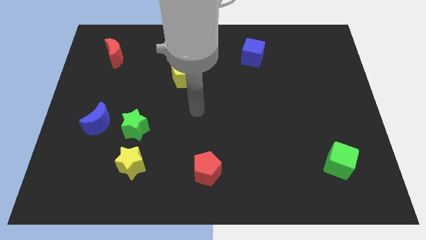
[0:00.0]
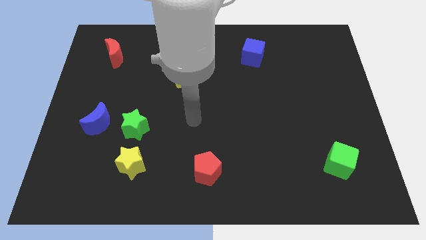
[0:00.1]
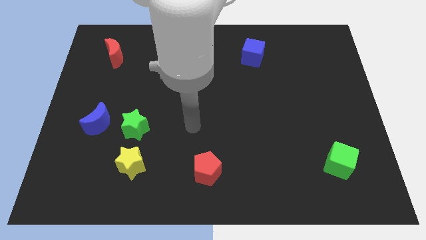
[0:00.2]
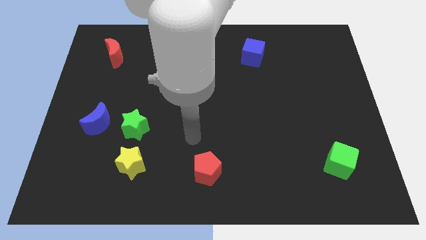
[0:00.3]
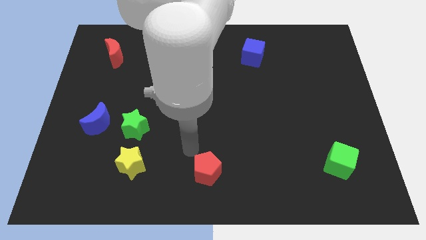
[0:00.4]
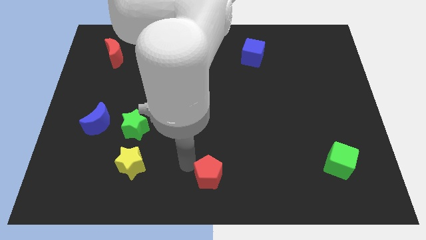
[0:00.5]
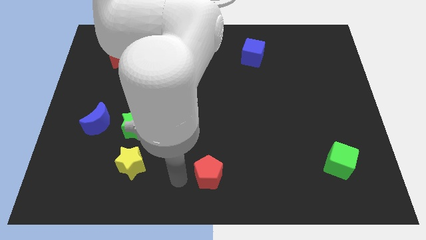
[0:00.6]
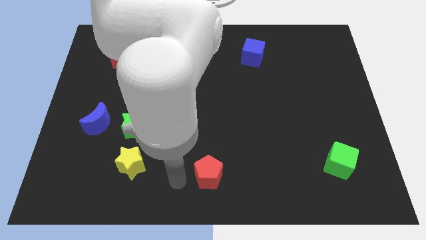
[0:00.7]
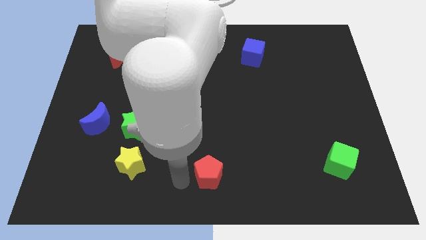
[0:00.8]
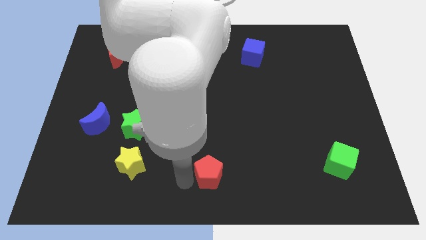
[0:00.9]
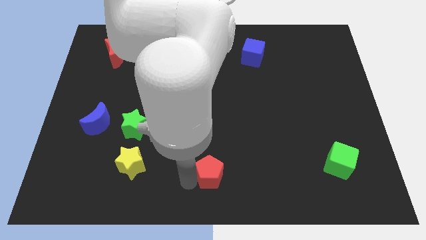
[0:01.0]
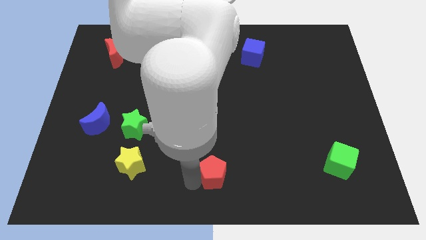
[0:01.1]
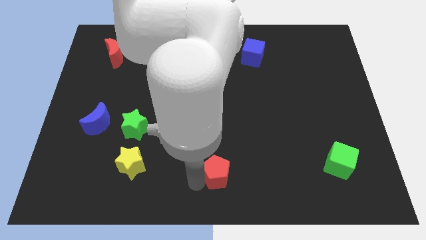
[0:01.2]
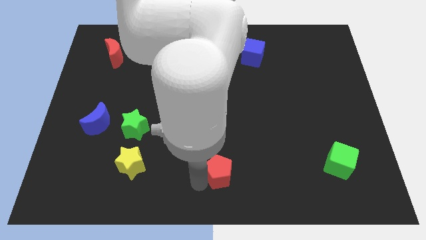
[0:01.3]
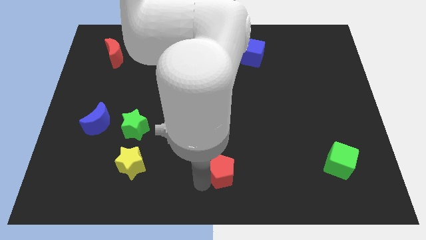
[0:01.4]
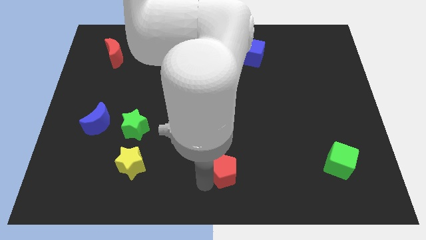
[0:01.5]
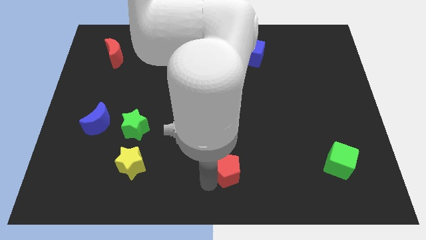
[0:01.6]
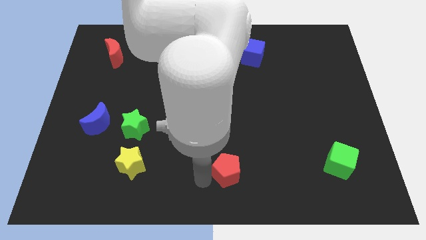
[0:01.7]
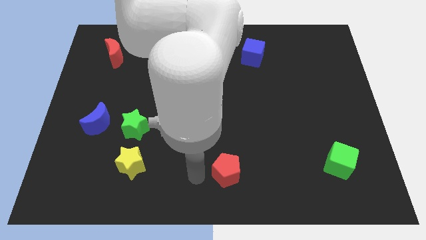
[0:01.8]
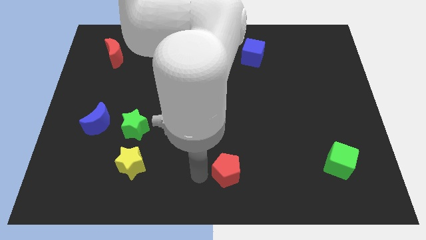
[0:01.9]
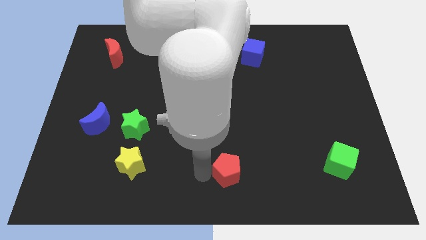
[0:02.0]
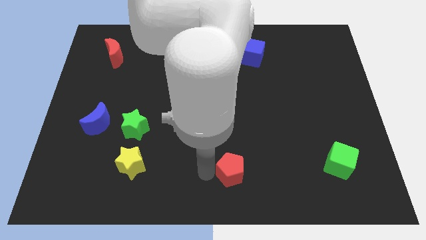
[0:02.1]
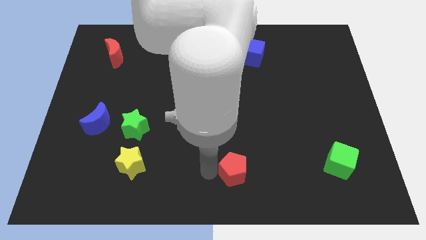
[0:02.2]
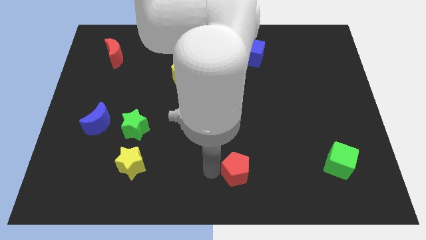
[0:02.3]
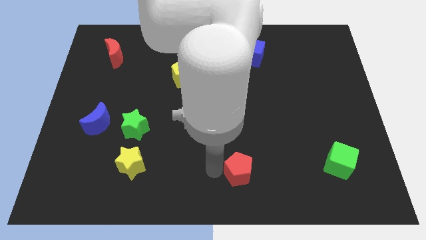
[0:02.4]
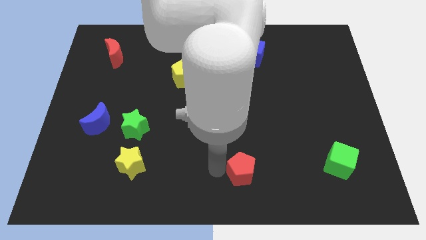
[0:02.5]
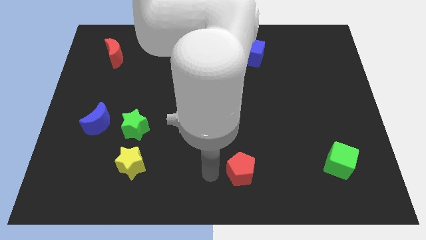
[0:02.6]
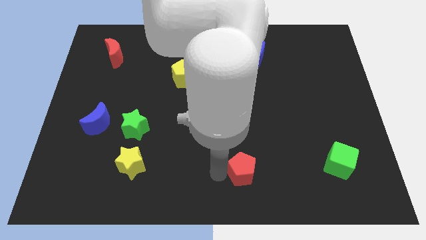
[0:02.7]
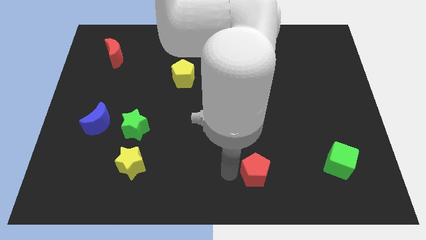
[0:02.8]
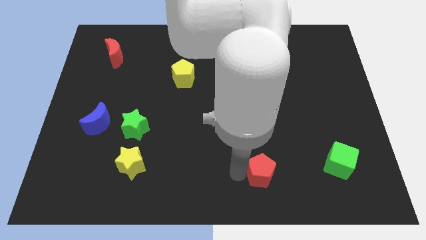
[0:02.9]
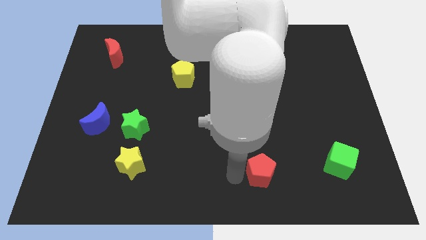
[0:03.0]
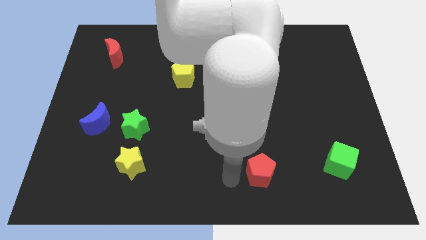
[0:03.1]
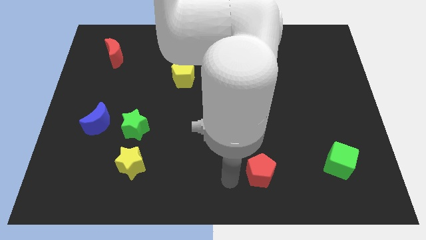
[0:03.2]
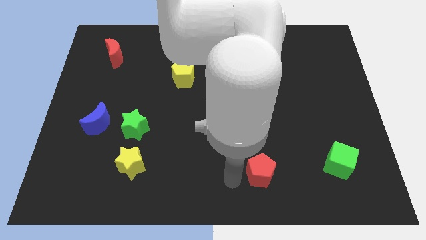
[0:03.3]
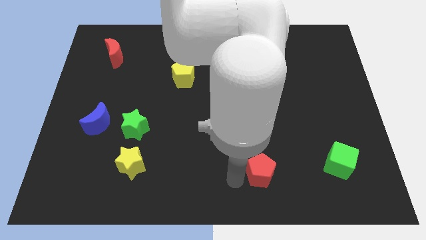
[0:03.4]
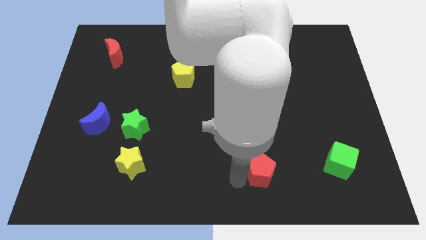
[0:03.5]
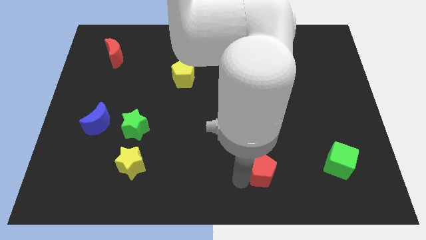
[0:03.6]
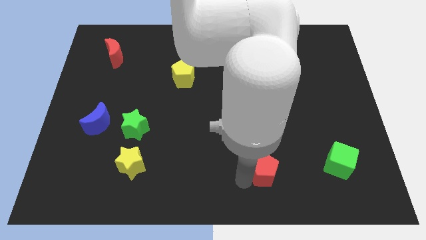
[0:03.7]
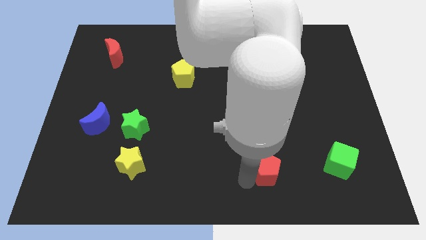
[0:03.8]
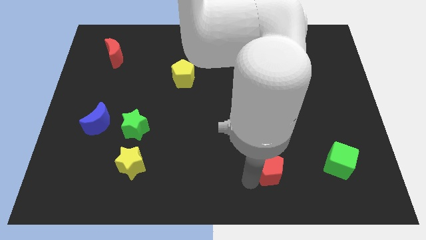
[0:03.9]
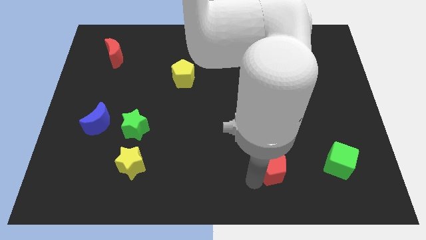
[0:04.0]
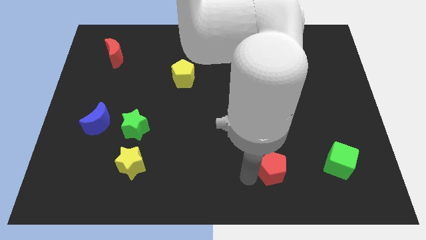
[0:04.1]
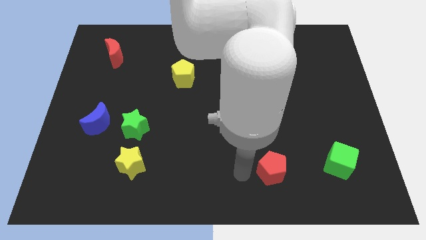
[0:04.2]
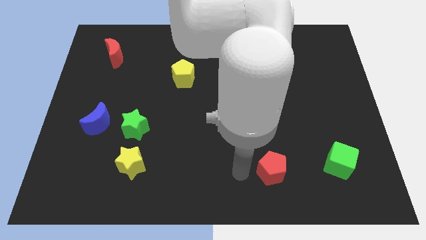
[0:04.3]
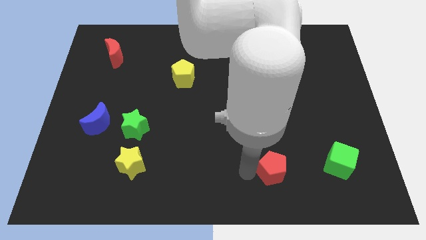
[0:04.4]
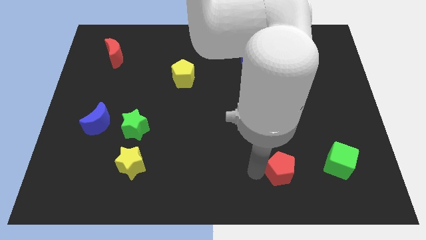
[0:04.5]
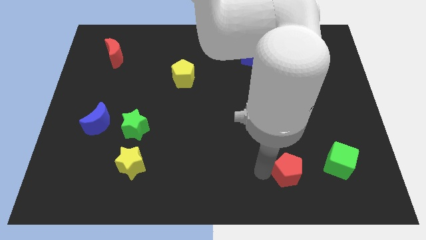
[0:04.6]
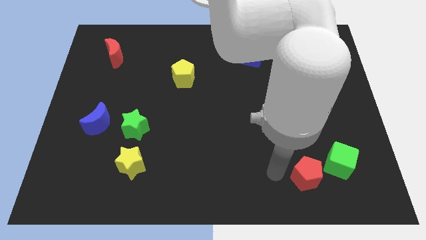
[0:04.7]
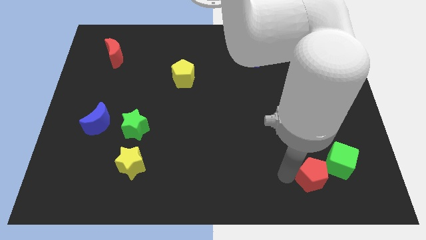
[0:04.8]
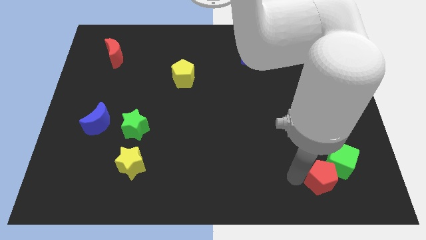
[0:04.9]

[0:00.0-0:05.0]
slide the red pentagon close to the green cube

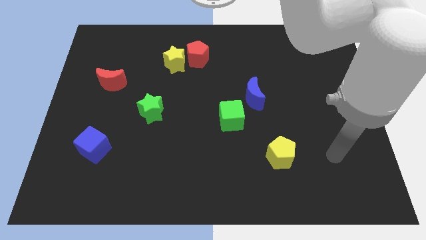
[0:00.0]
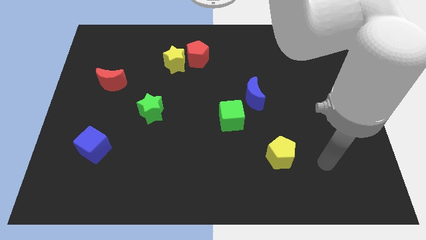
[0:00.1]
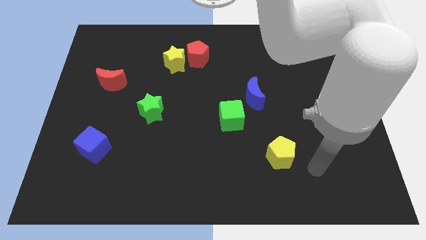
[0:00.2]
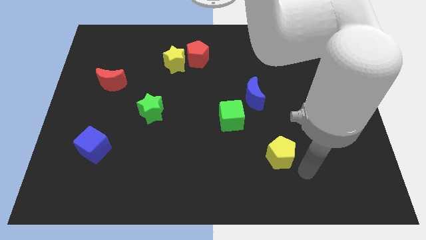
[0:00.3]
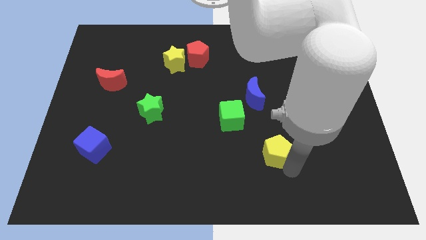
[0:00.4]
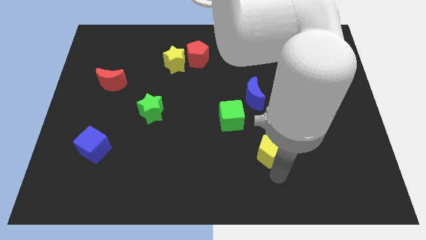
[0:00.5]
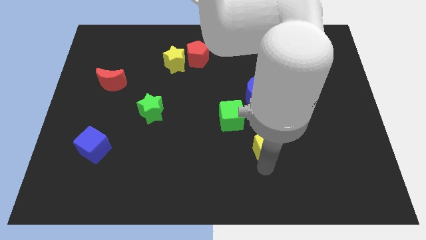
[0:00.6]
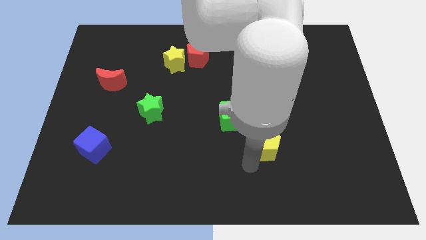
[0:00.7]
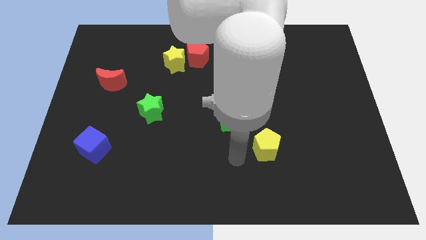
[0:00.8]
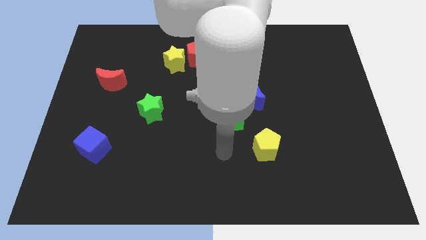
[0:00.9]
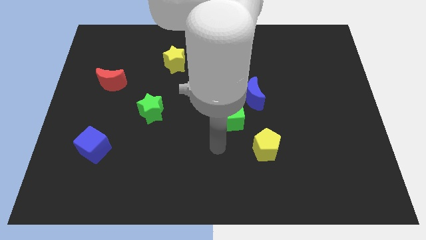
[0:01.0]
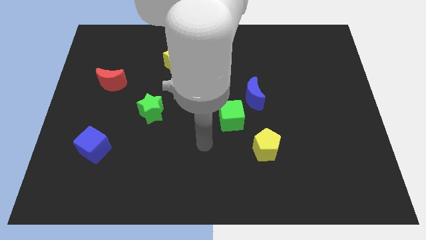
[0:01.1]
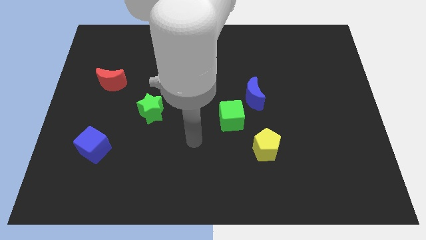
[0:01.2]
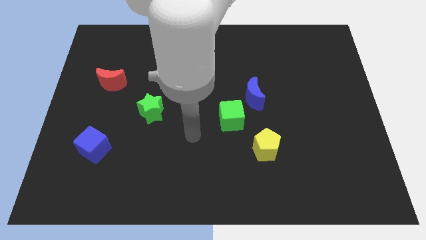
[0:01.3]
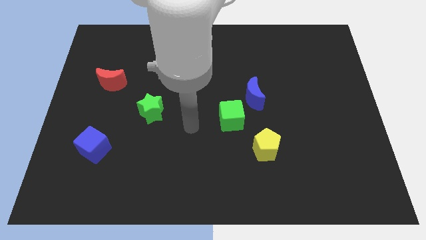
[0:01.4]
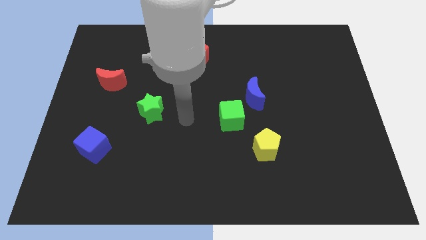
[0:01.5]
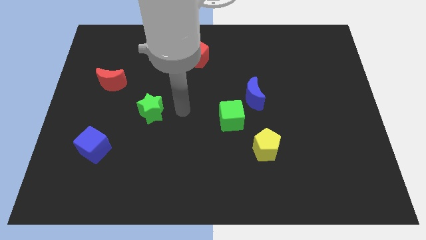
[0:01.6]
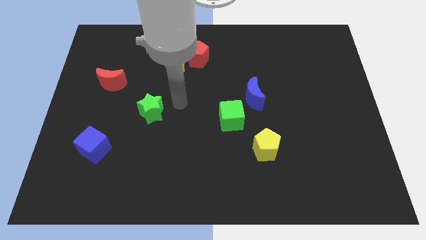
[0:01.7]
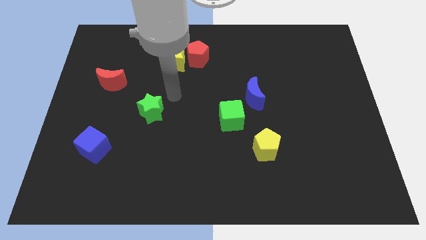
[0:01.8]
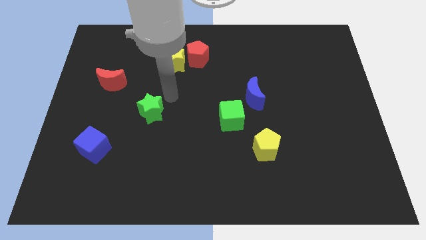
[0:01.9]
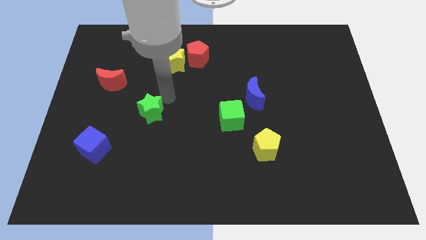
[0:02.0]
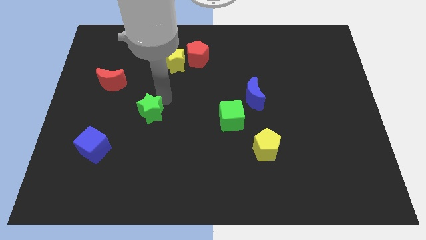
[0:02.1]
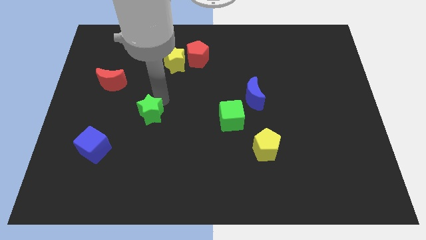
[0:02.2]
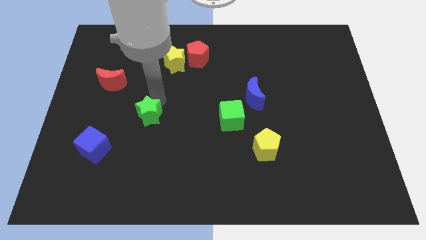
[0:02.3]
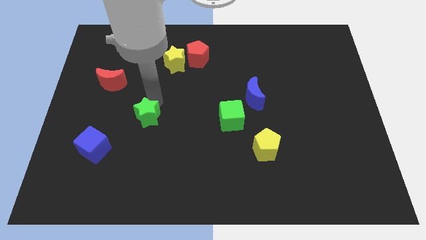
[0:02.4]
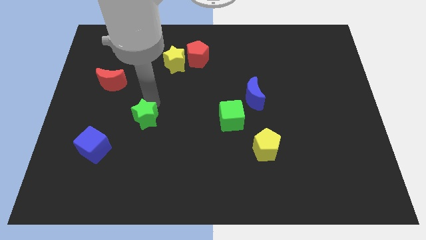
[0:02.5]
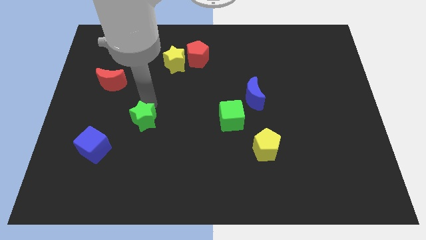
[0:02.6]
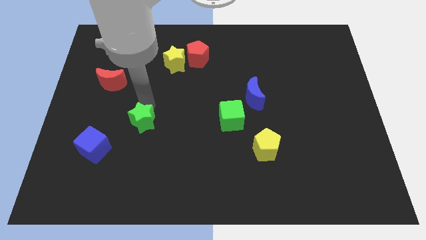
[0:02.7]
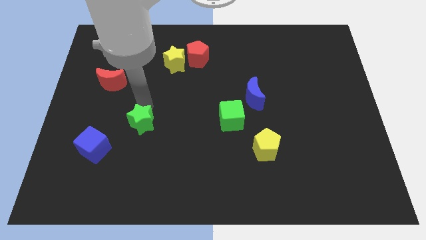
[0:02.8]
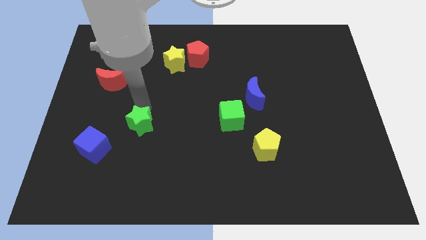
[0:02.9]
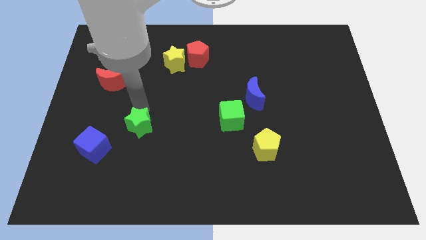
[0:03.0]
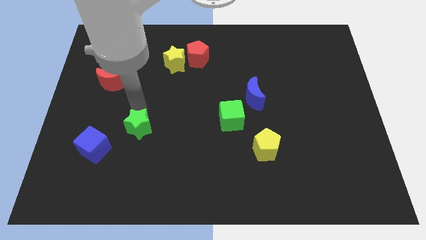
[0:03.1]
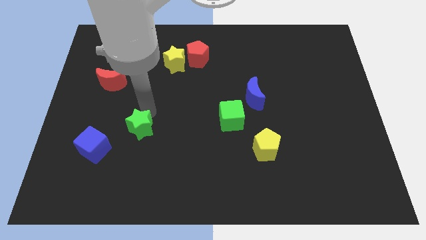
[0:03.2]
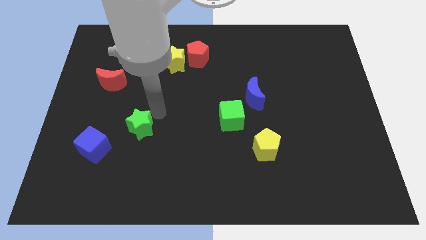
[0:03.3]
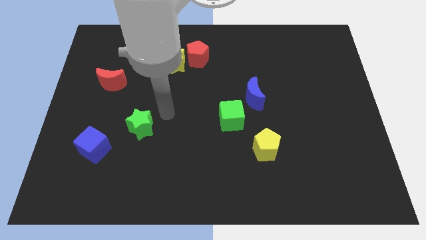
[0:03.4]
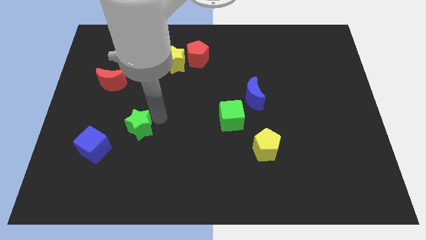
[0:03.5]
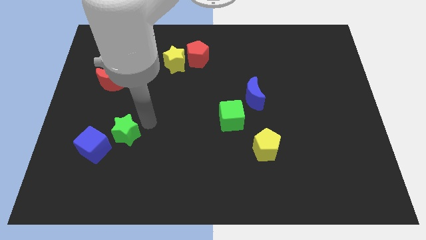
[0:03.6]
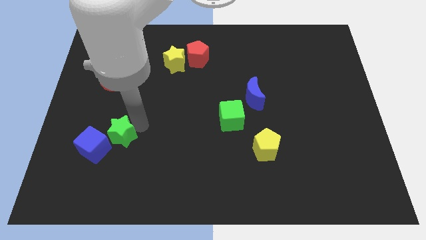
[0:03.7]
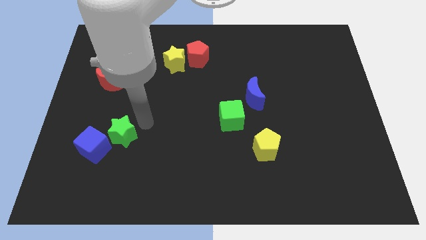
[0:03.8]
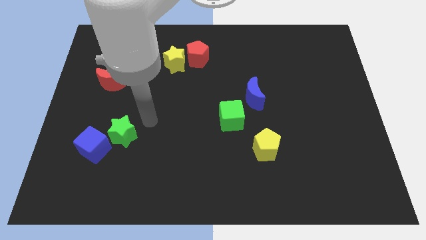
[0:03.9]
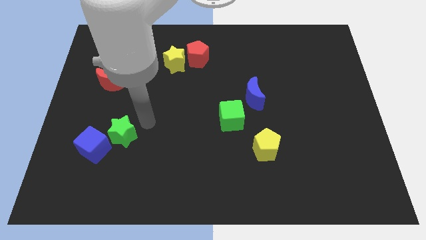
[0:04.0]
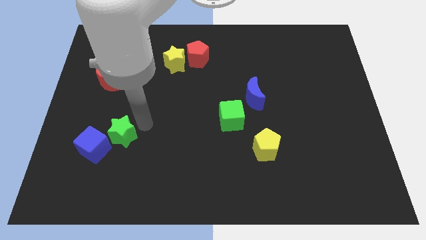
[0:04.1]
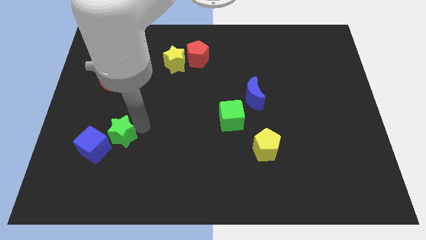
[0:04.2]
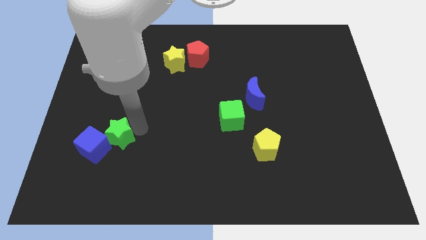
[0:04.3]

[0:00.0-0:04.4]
move the green star next to the blue cube
